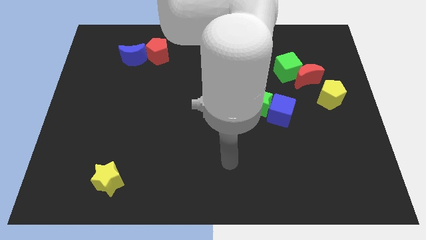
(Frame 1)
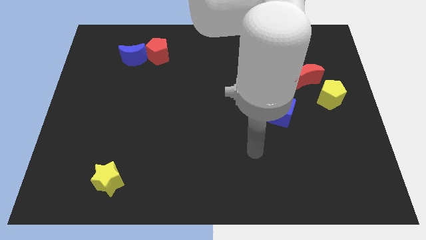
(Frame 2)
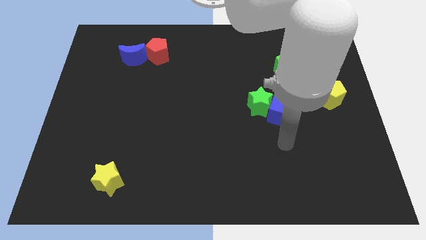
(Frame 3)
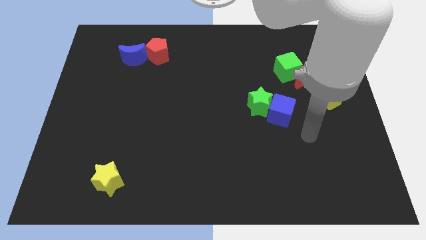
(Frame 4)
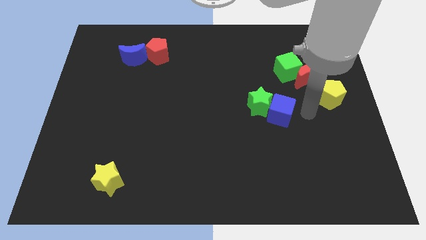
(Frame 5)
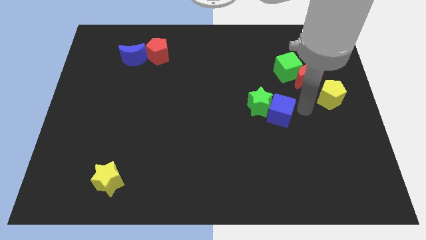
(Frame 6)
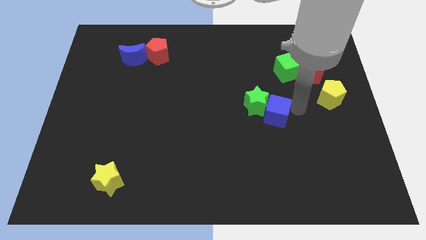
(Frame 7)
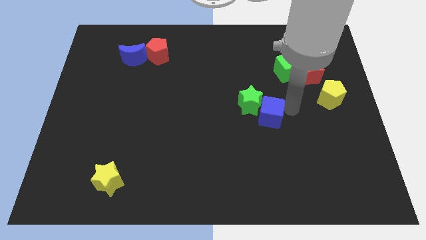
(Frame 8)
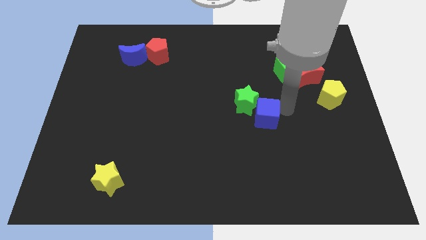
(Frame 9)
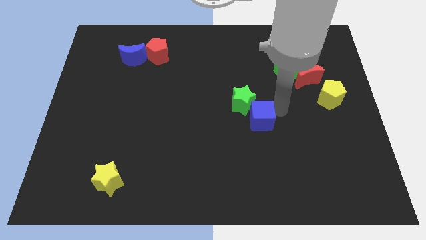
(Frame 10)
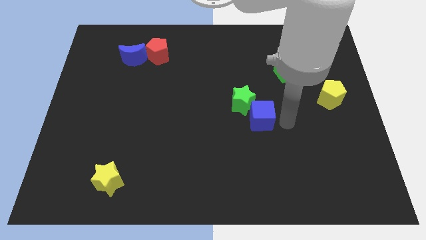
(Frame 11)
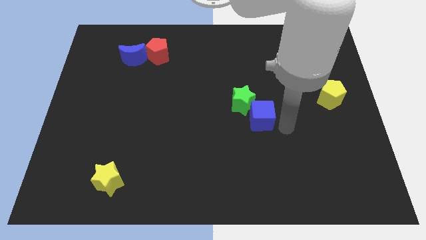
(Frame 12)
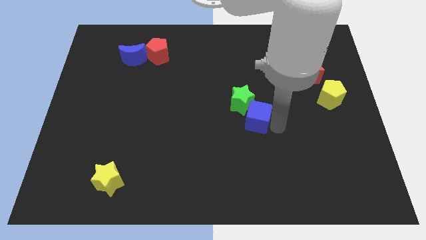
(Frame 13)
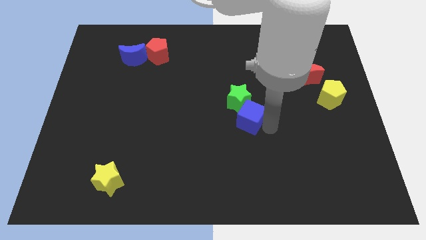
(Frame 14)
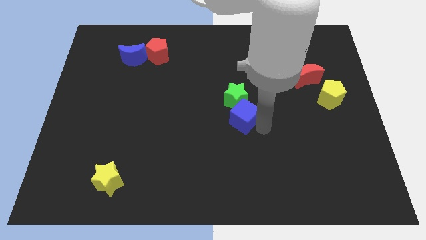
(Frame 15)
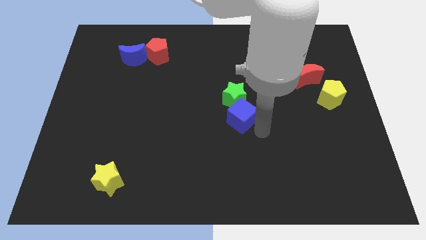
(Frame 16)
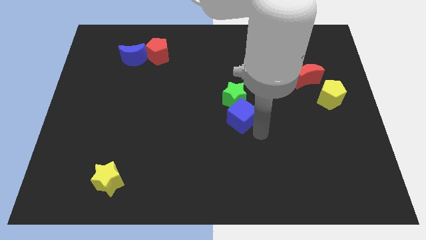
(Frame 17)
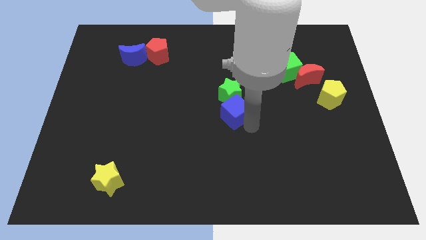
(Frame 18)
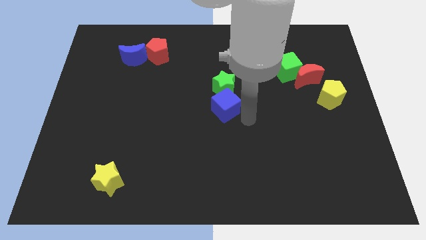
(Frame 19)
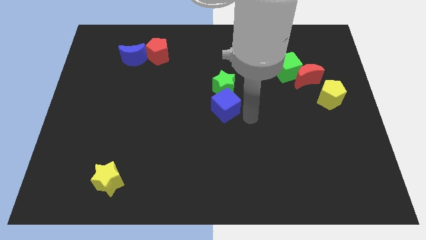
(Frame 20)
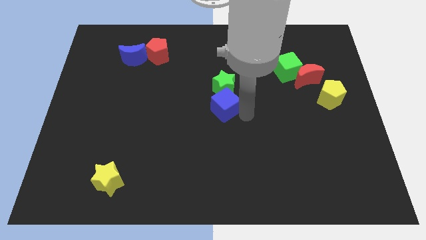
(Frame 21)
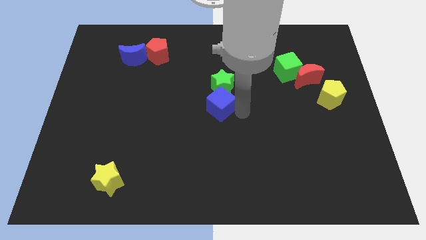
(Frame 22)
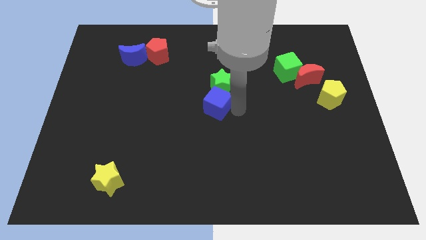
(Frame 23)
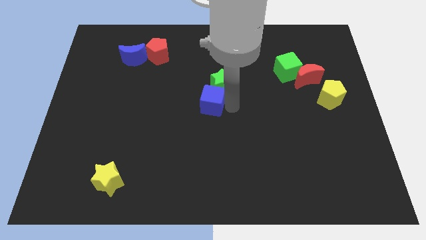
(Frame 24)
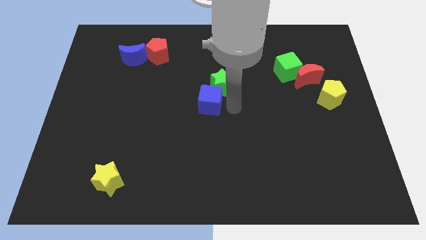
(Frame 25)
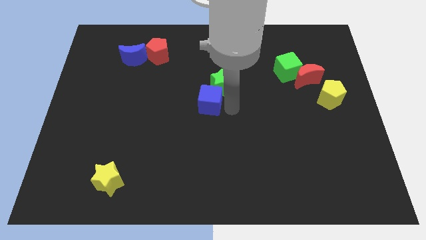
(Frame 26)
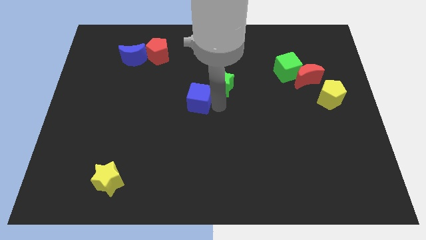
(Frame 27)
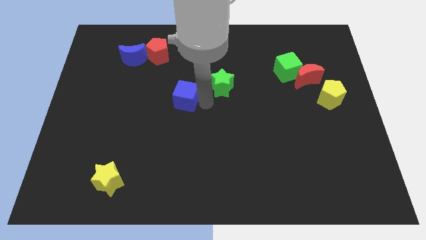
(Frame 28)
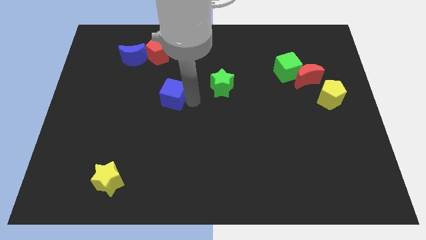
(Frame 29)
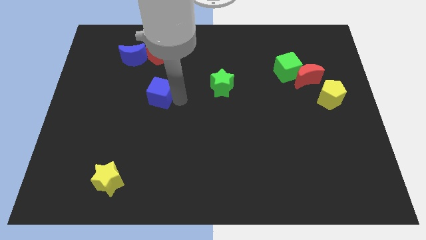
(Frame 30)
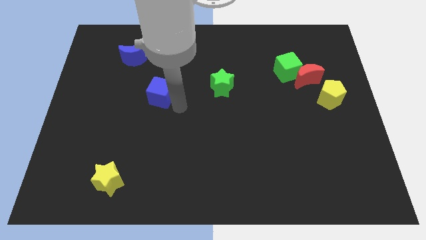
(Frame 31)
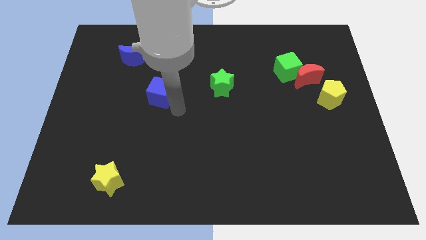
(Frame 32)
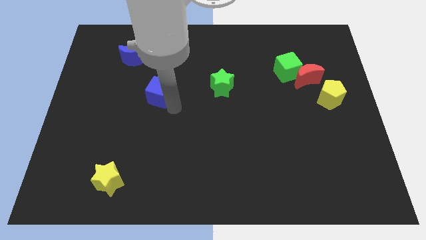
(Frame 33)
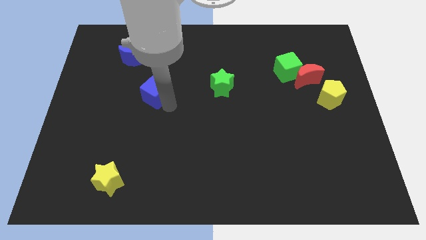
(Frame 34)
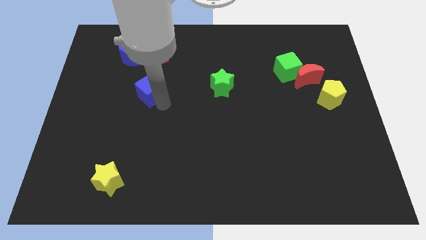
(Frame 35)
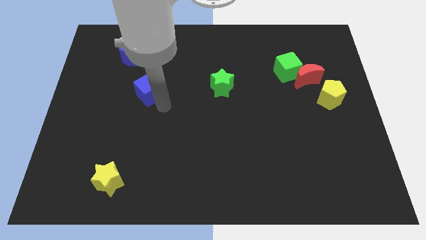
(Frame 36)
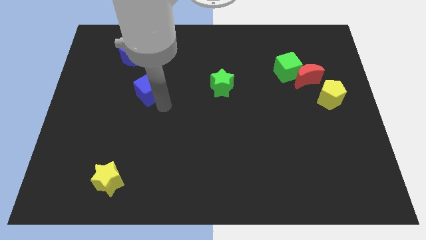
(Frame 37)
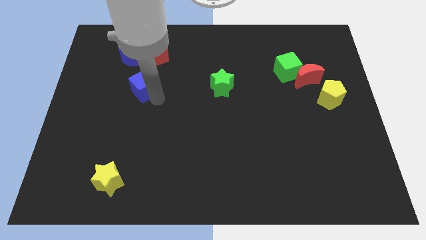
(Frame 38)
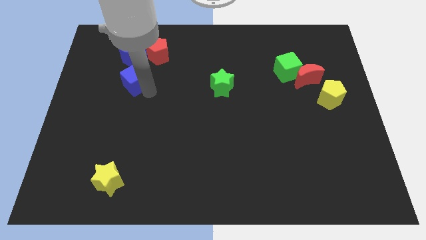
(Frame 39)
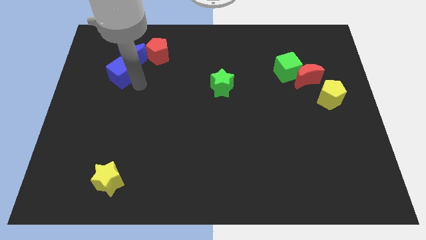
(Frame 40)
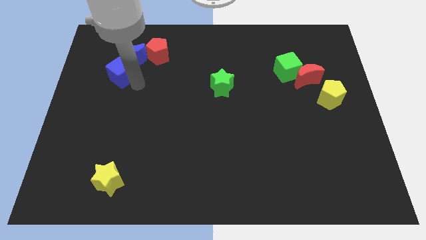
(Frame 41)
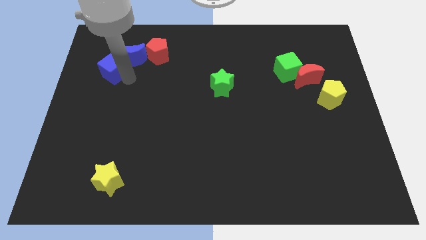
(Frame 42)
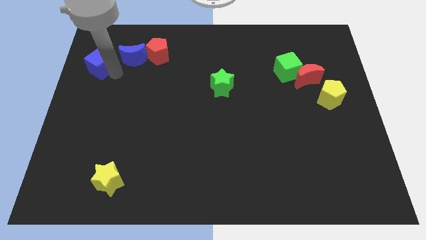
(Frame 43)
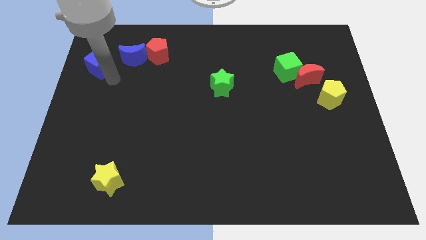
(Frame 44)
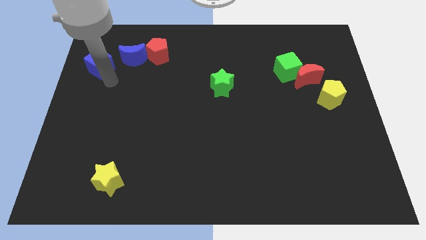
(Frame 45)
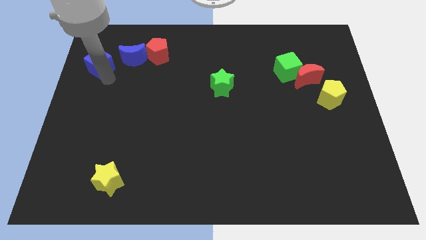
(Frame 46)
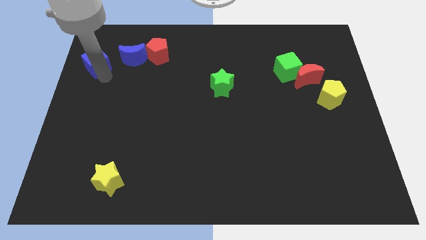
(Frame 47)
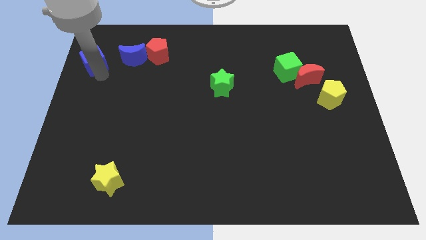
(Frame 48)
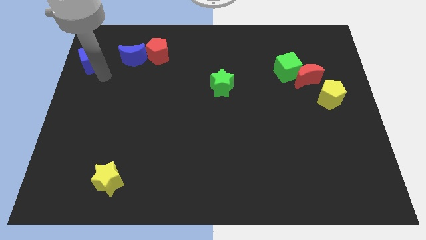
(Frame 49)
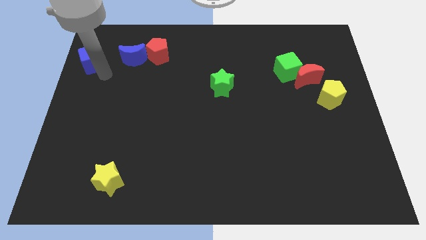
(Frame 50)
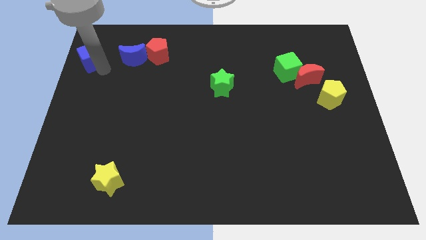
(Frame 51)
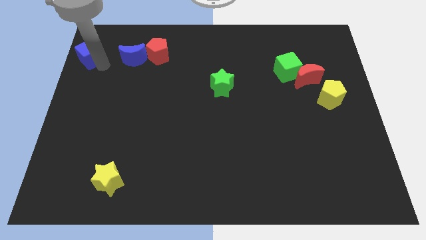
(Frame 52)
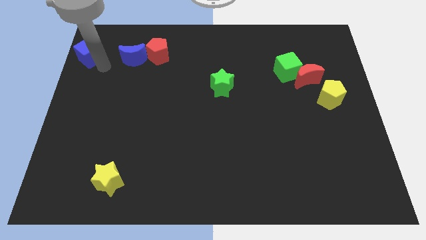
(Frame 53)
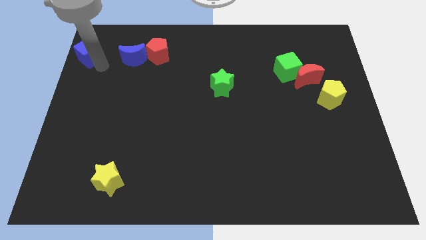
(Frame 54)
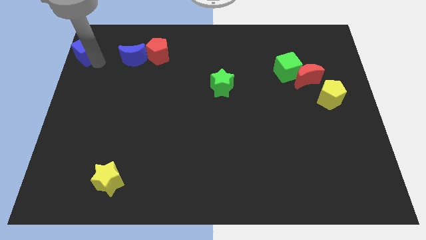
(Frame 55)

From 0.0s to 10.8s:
slide the blue cube to the upper left corner

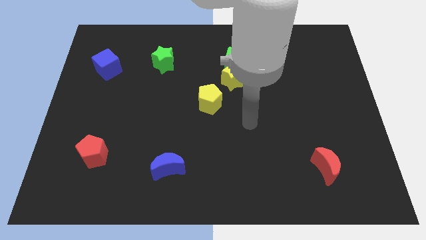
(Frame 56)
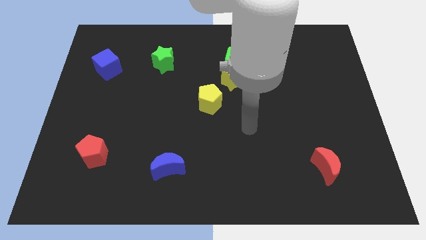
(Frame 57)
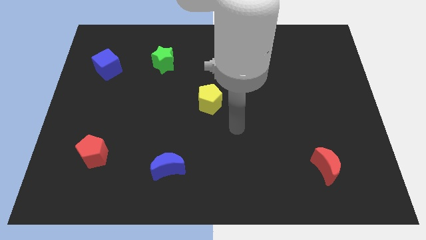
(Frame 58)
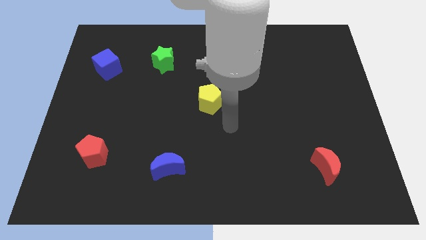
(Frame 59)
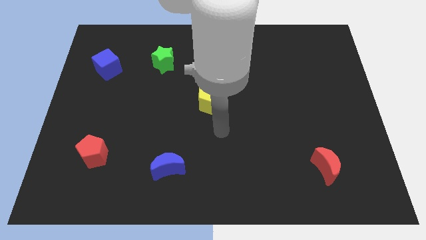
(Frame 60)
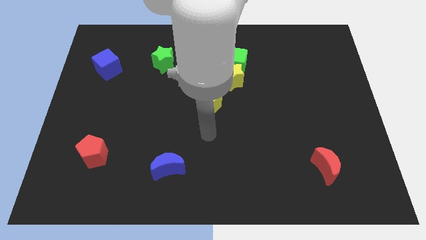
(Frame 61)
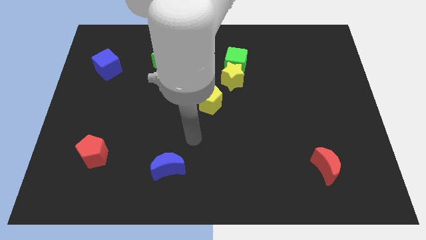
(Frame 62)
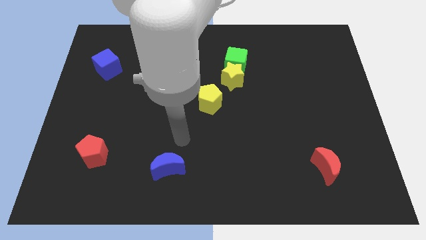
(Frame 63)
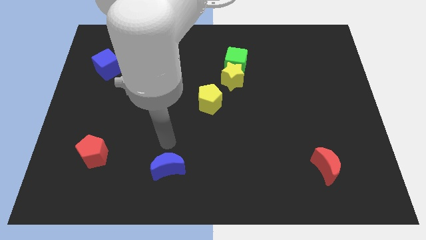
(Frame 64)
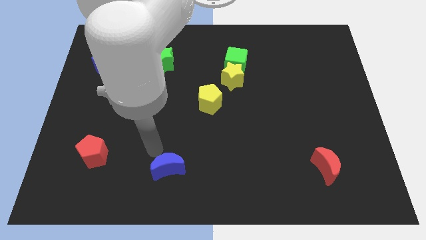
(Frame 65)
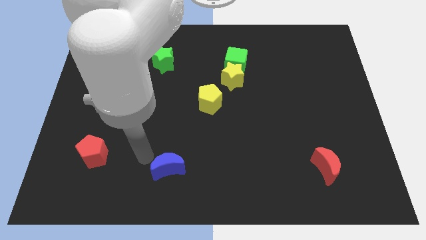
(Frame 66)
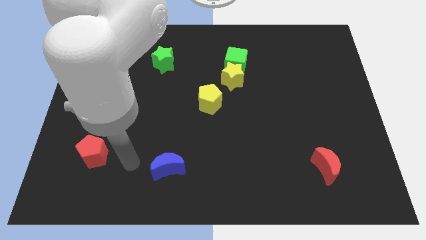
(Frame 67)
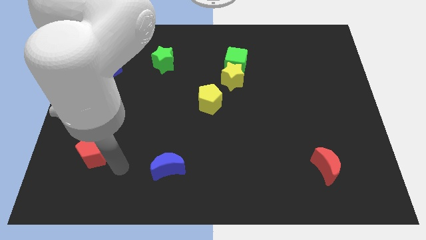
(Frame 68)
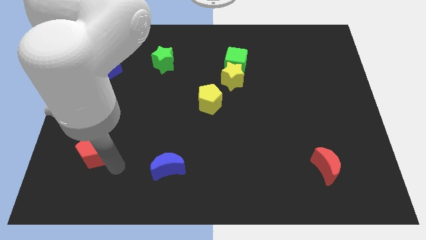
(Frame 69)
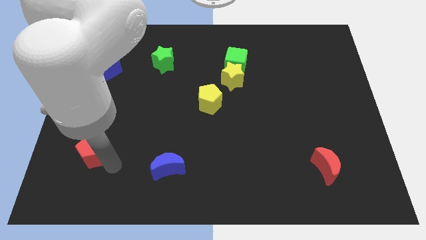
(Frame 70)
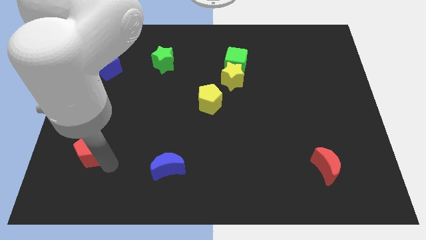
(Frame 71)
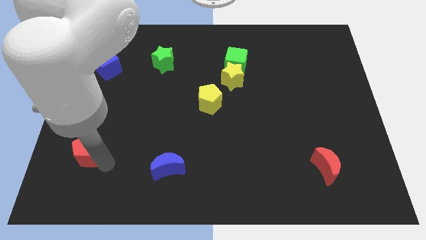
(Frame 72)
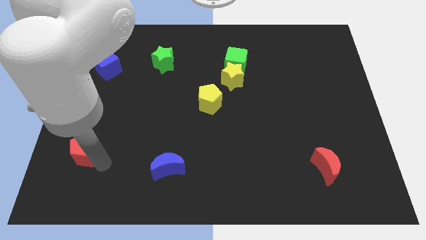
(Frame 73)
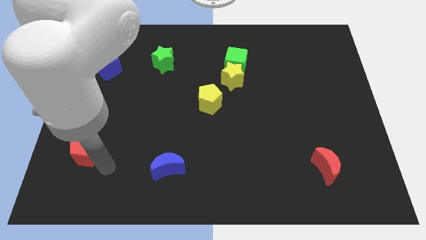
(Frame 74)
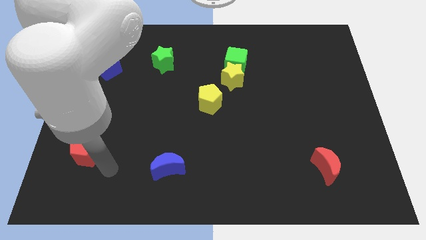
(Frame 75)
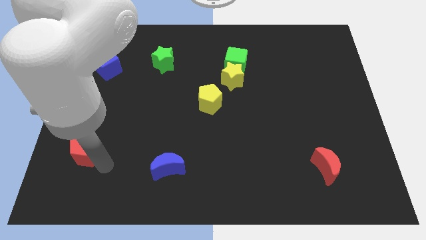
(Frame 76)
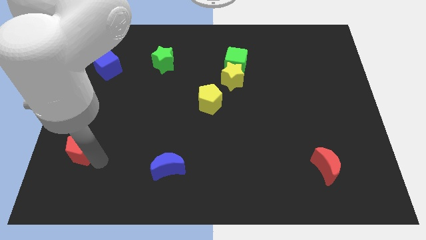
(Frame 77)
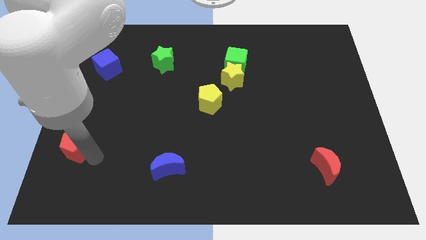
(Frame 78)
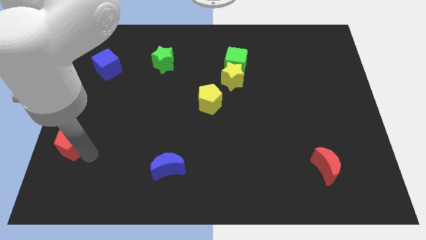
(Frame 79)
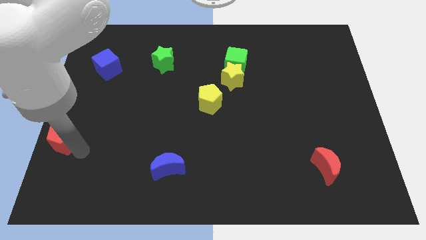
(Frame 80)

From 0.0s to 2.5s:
move the red pentagon to the left side
